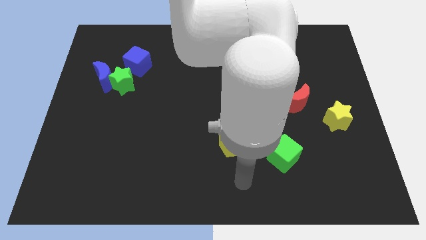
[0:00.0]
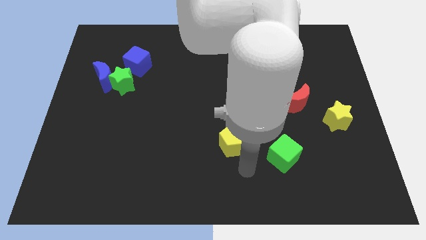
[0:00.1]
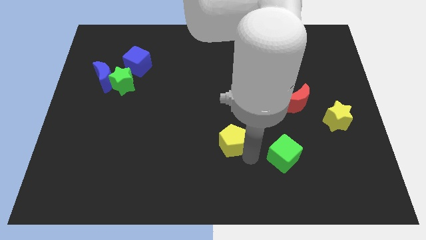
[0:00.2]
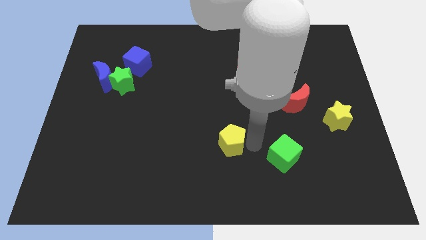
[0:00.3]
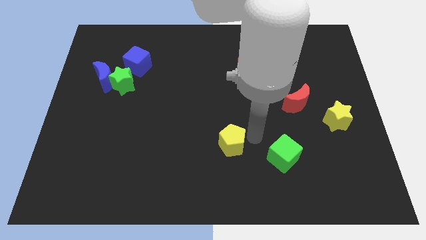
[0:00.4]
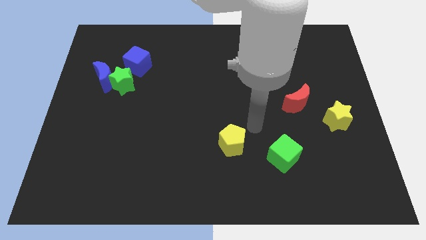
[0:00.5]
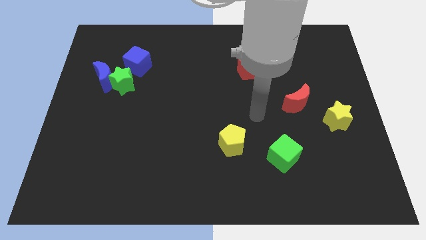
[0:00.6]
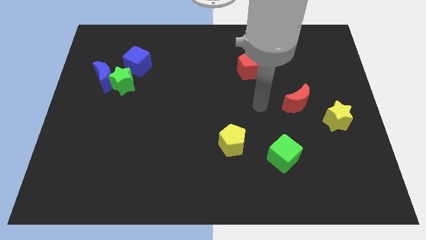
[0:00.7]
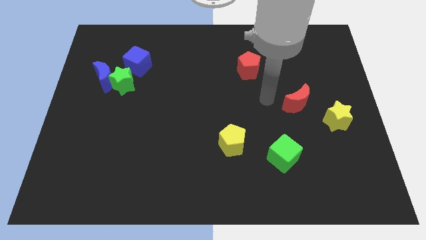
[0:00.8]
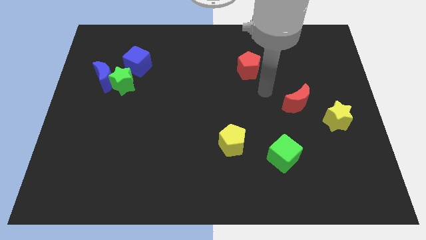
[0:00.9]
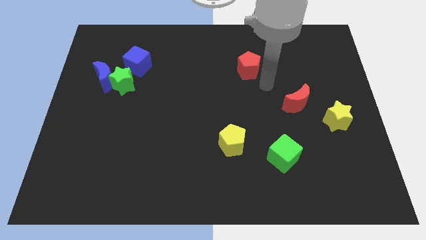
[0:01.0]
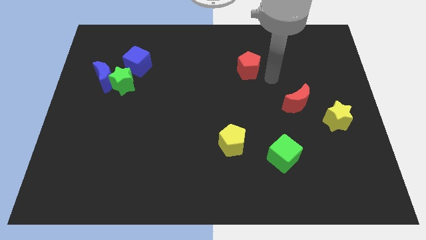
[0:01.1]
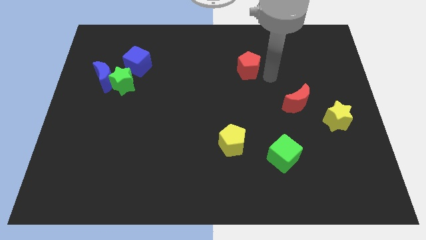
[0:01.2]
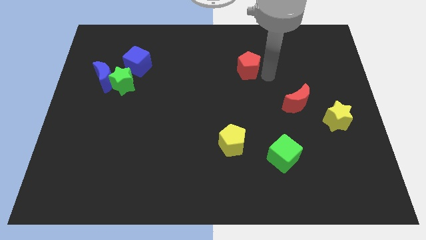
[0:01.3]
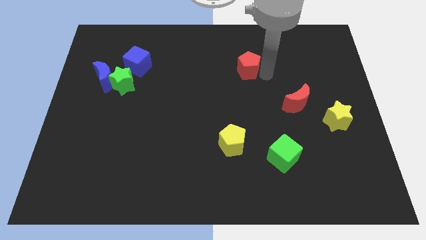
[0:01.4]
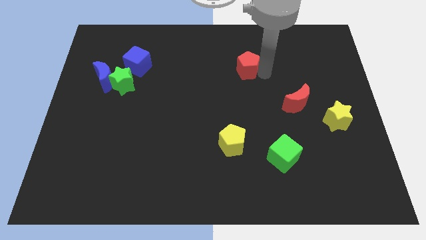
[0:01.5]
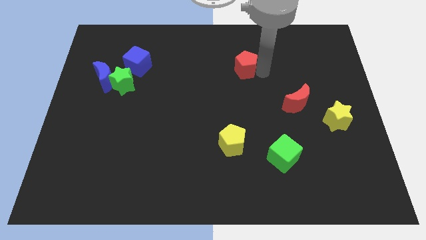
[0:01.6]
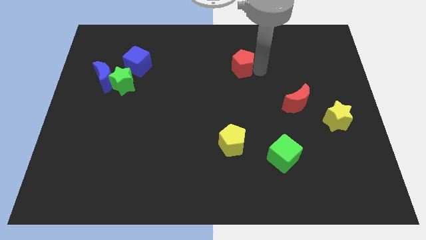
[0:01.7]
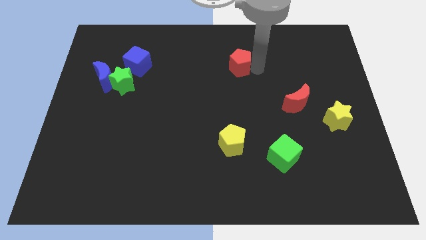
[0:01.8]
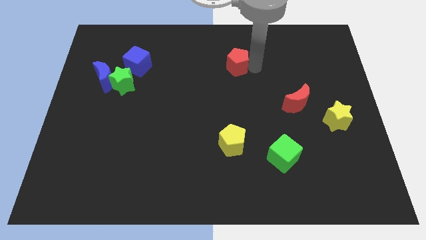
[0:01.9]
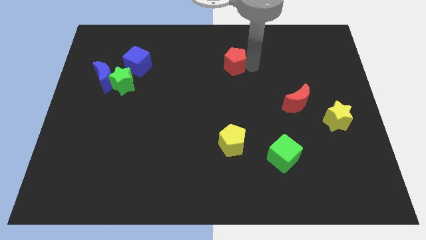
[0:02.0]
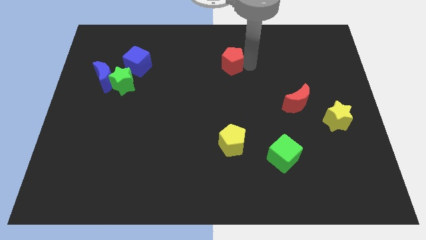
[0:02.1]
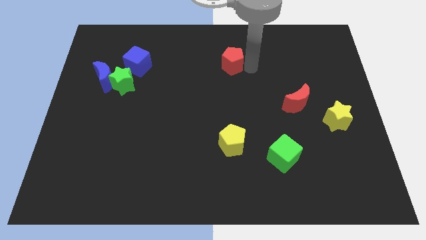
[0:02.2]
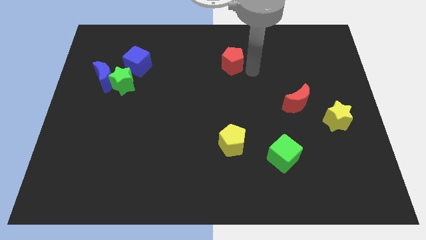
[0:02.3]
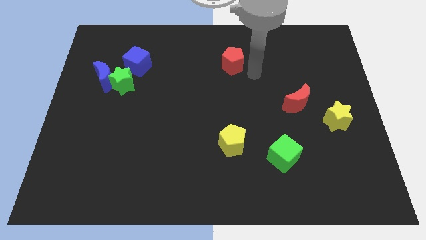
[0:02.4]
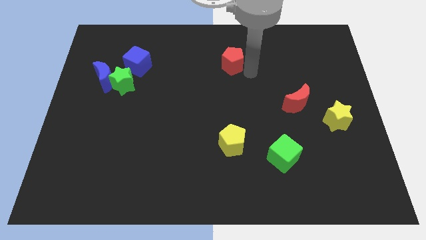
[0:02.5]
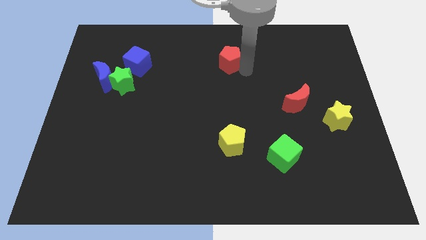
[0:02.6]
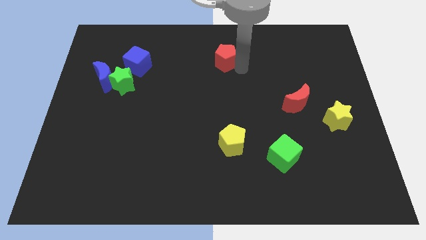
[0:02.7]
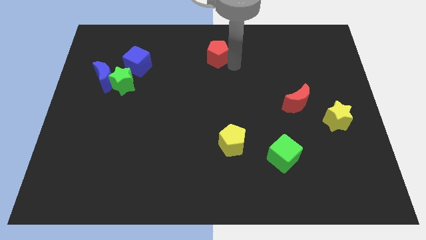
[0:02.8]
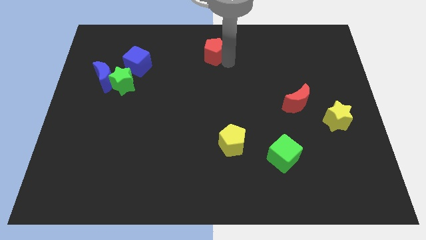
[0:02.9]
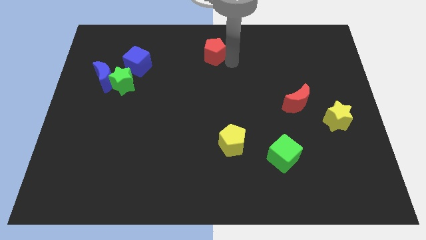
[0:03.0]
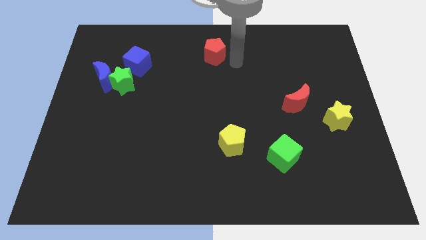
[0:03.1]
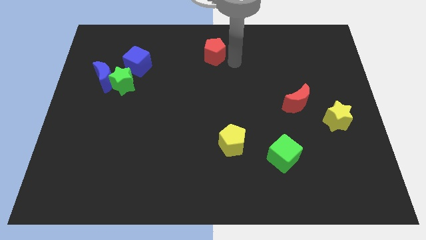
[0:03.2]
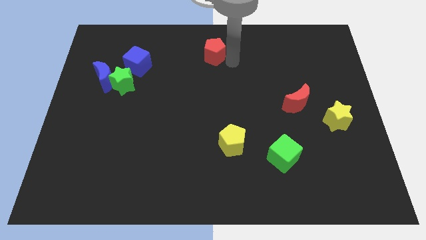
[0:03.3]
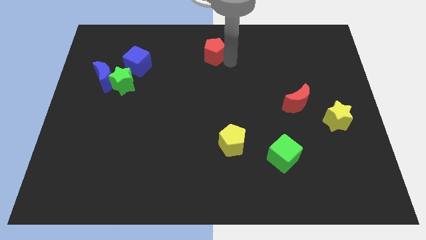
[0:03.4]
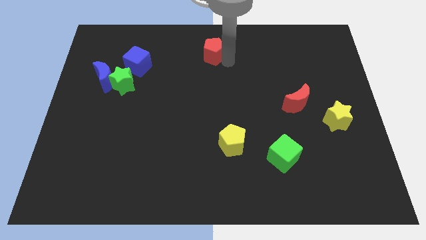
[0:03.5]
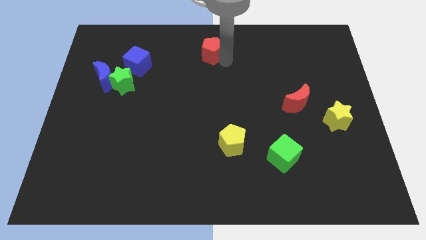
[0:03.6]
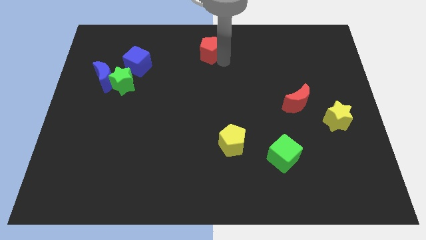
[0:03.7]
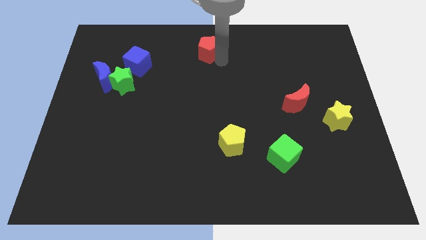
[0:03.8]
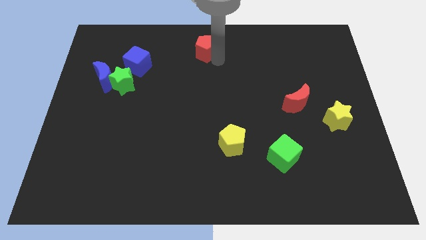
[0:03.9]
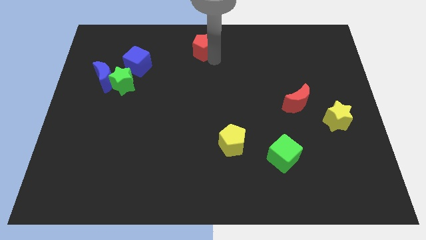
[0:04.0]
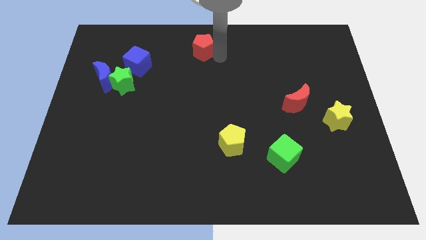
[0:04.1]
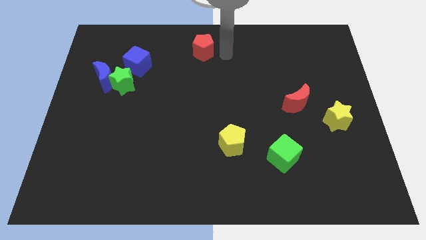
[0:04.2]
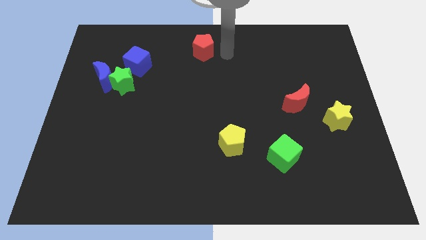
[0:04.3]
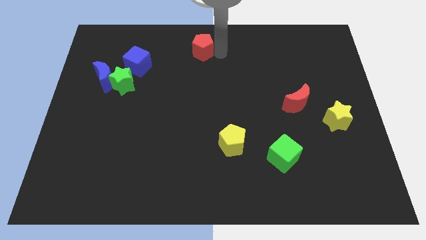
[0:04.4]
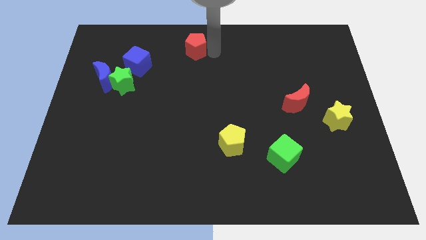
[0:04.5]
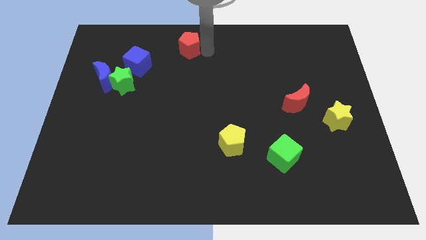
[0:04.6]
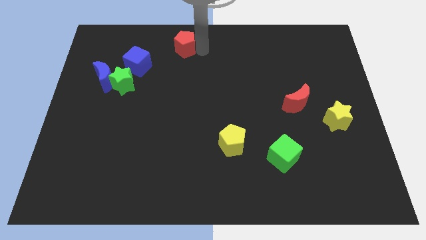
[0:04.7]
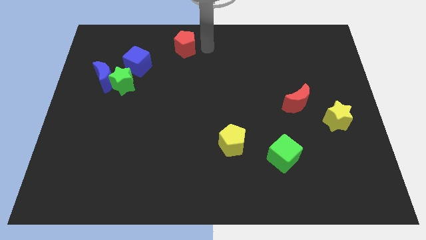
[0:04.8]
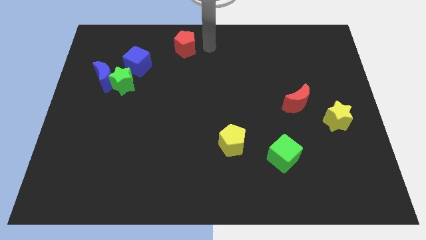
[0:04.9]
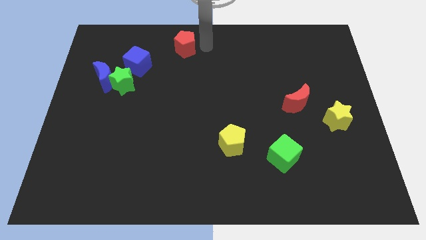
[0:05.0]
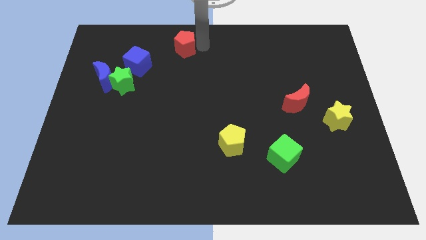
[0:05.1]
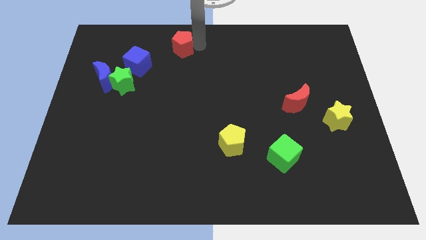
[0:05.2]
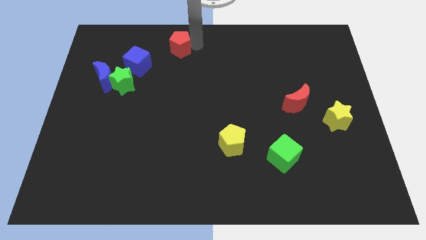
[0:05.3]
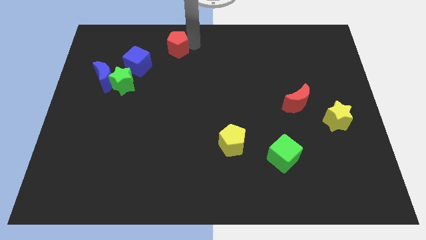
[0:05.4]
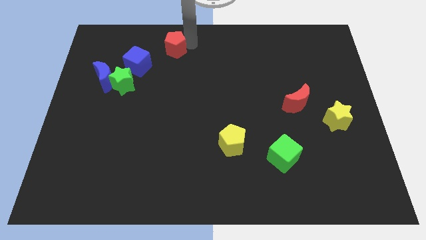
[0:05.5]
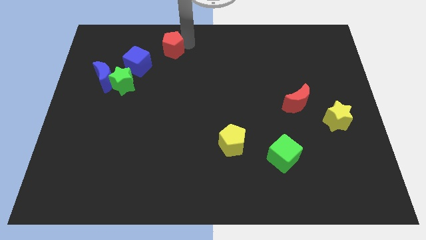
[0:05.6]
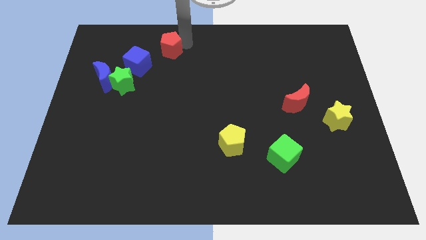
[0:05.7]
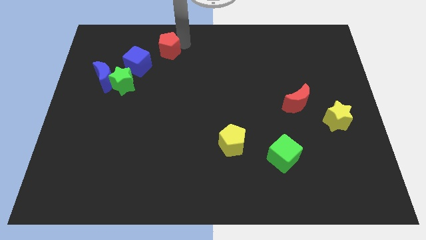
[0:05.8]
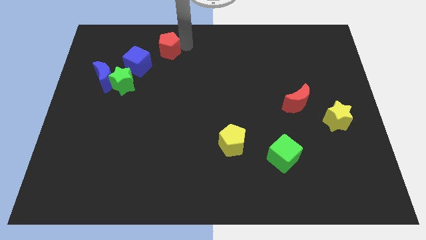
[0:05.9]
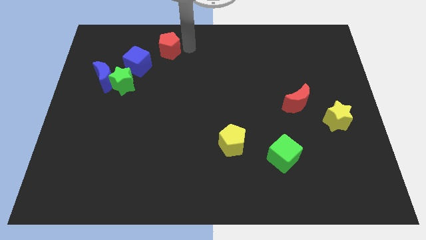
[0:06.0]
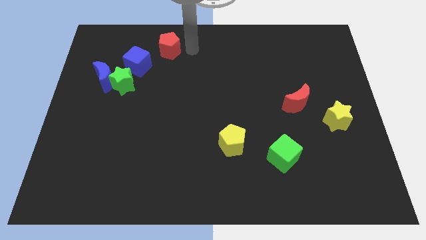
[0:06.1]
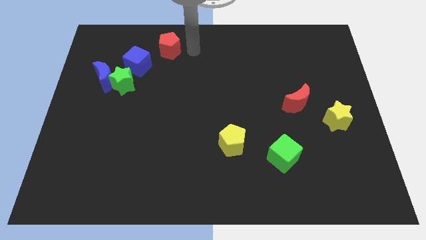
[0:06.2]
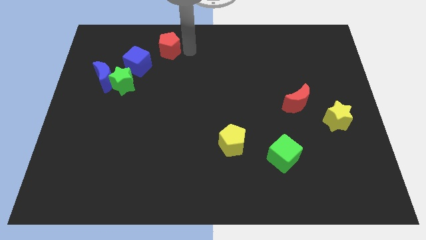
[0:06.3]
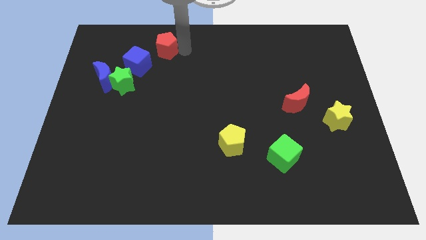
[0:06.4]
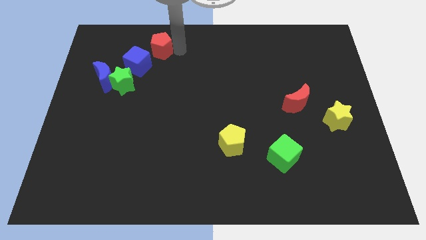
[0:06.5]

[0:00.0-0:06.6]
push the red pentagon left

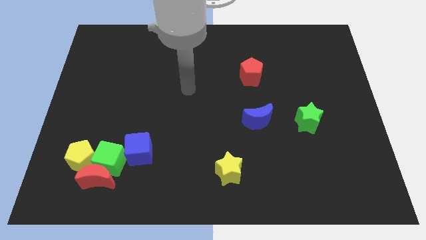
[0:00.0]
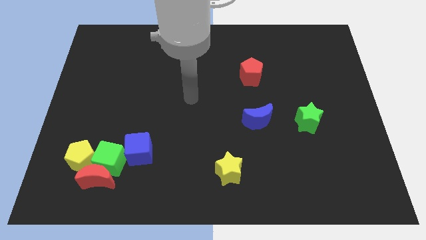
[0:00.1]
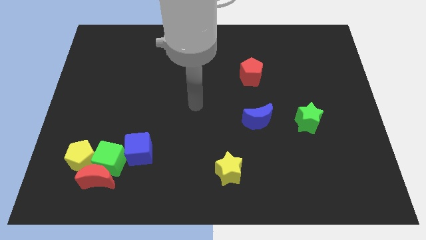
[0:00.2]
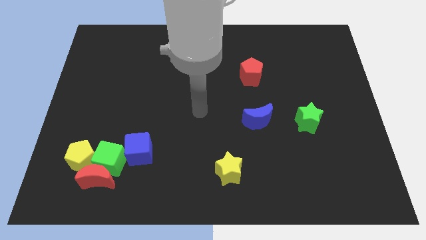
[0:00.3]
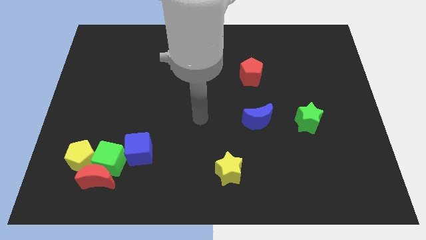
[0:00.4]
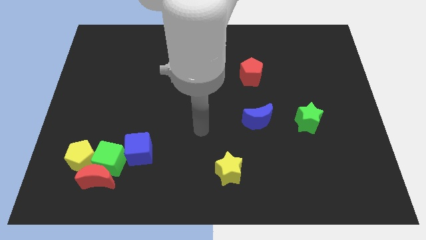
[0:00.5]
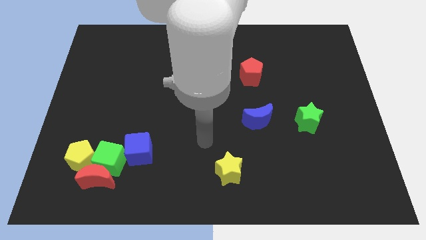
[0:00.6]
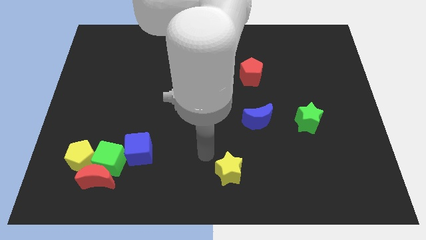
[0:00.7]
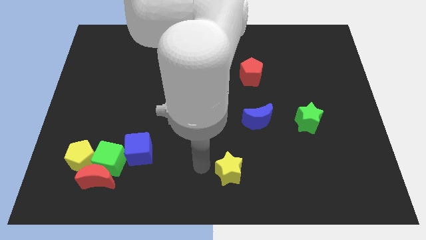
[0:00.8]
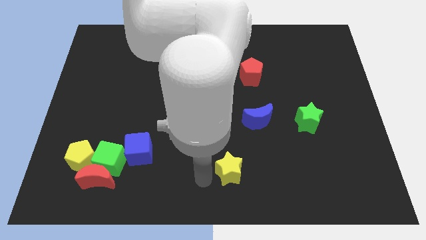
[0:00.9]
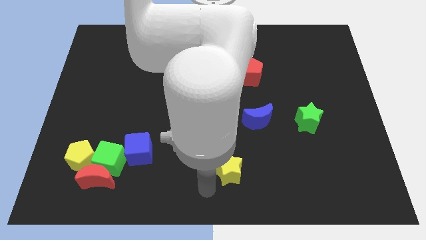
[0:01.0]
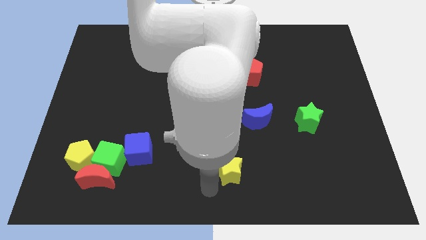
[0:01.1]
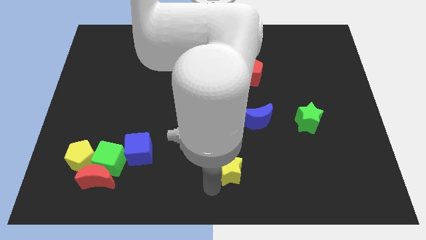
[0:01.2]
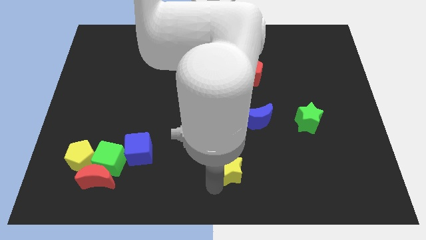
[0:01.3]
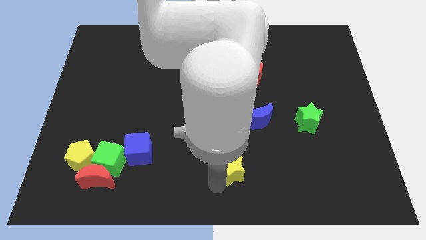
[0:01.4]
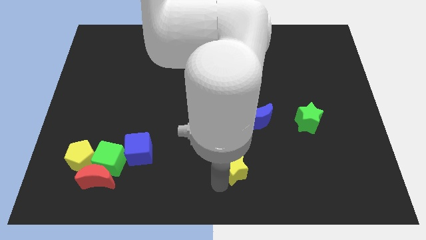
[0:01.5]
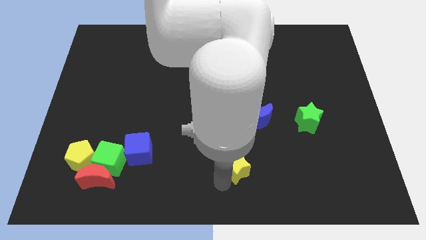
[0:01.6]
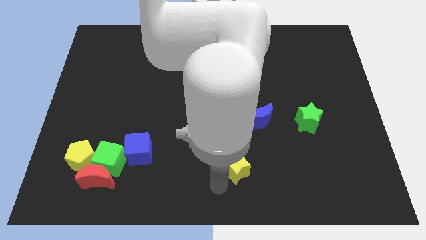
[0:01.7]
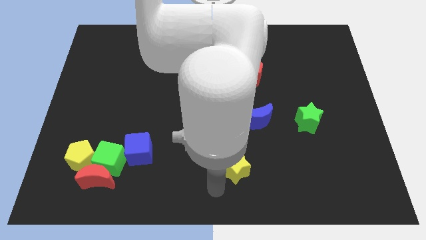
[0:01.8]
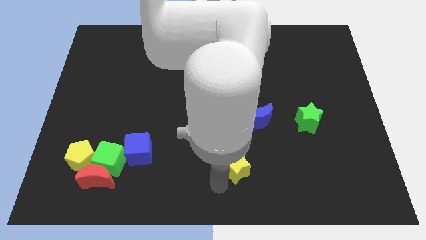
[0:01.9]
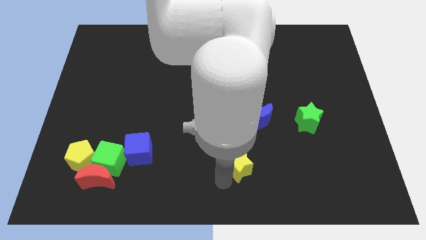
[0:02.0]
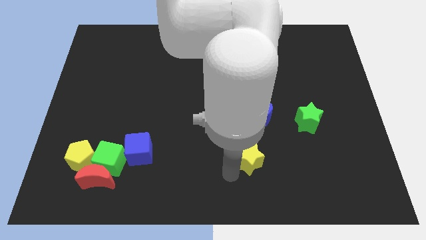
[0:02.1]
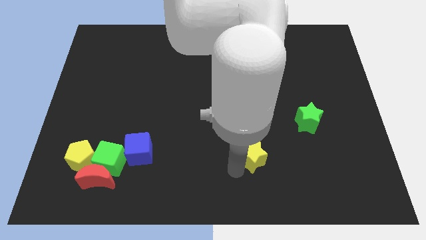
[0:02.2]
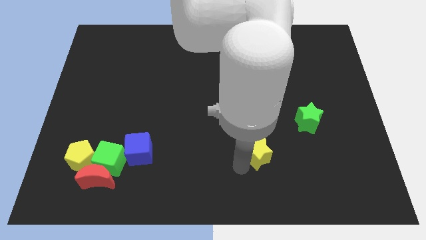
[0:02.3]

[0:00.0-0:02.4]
slide the yellow star upwards and then right somewhat
